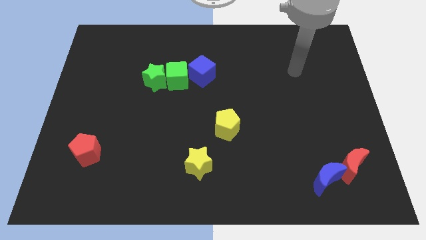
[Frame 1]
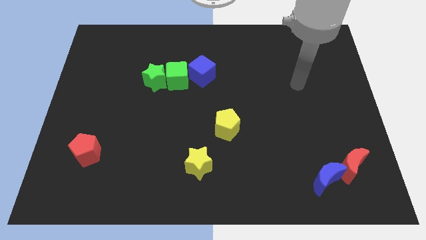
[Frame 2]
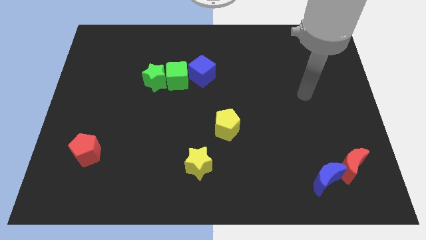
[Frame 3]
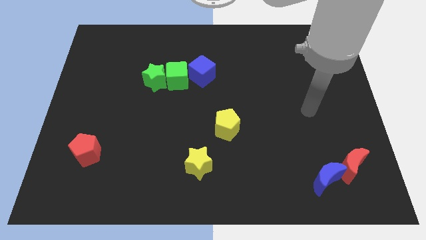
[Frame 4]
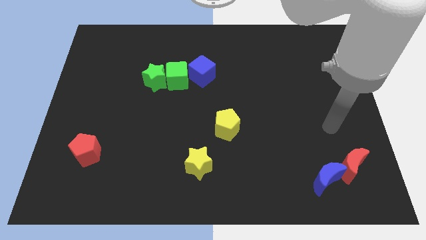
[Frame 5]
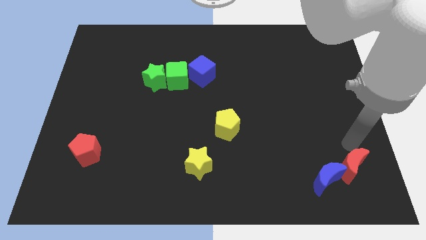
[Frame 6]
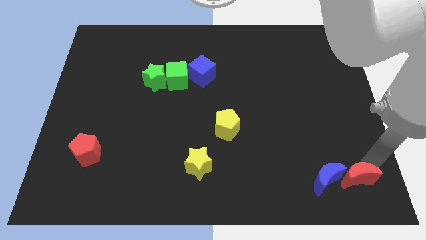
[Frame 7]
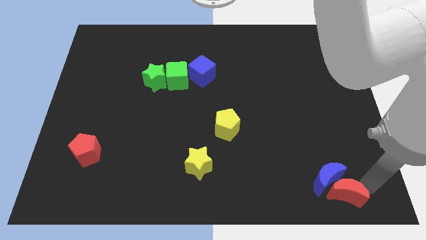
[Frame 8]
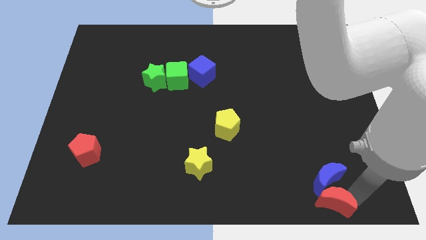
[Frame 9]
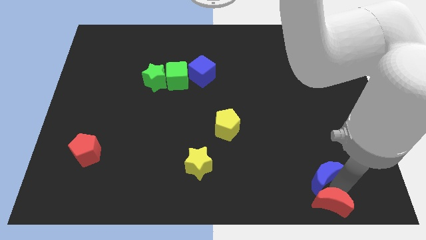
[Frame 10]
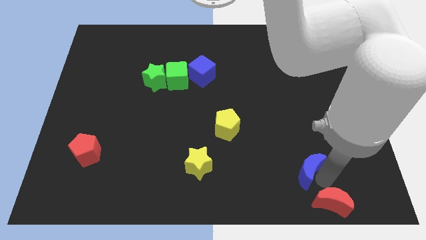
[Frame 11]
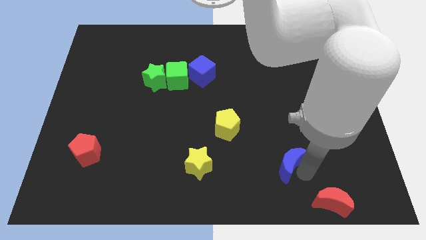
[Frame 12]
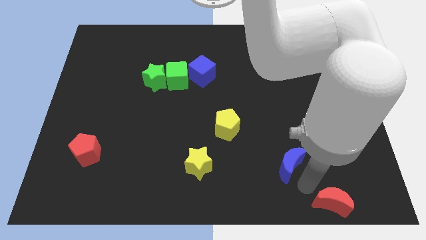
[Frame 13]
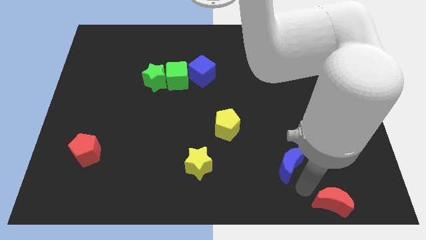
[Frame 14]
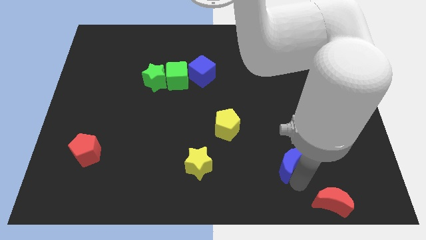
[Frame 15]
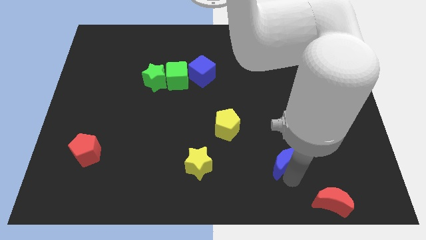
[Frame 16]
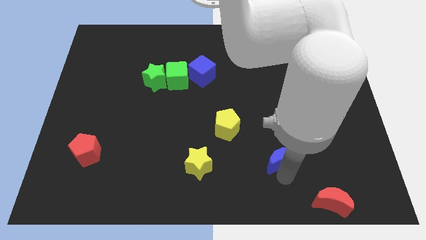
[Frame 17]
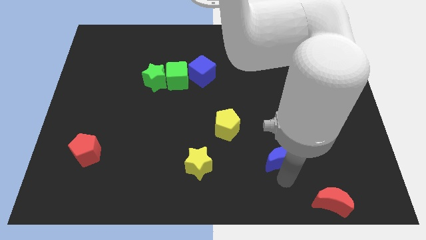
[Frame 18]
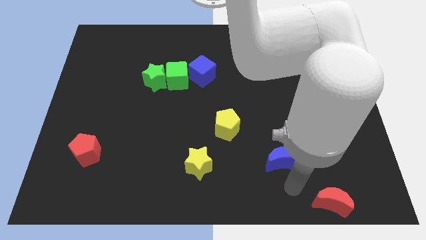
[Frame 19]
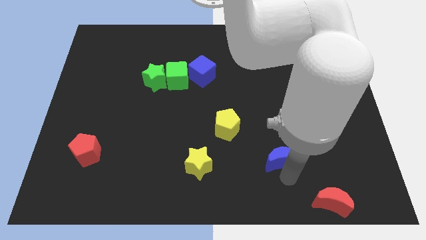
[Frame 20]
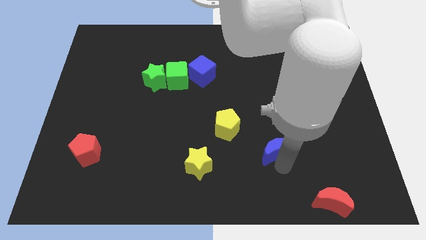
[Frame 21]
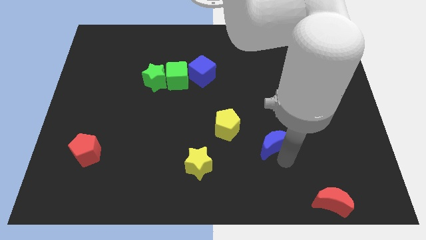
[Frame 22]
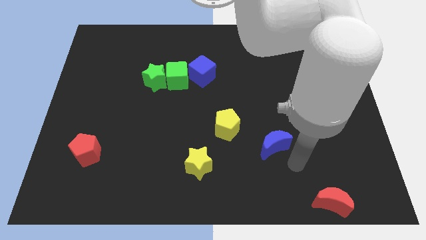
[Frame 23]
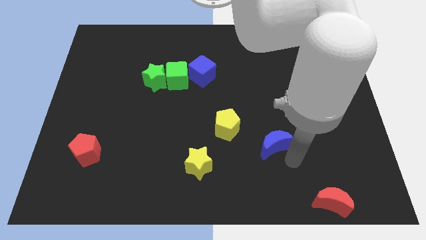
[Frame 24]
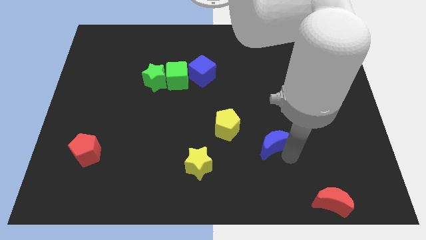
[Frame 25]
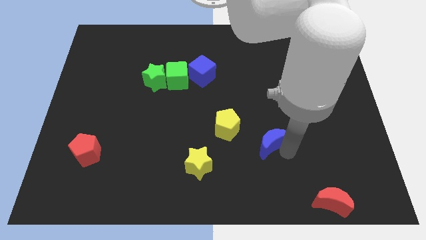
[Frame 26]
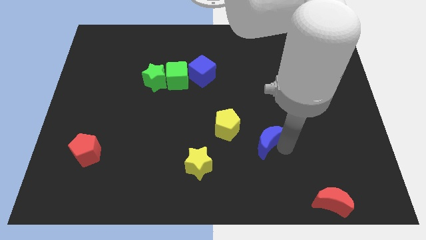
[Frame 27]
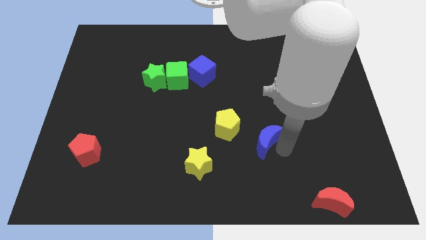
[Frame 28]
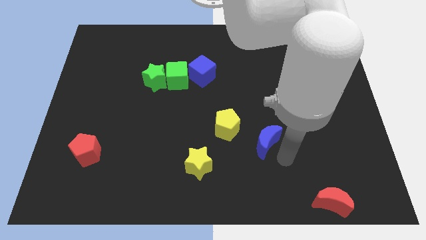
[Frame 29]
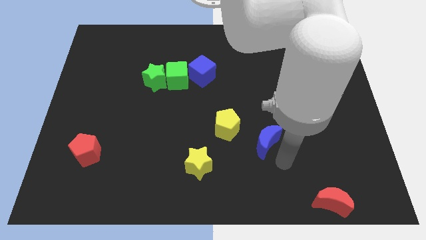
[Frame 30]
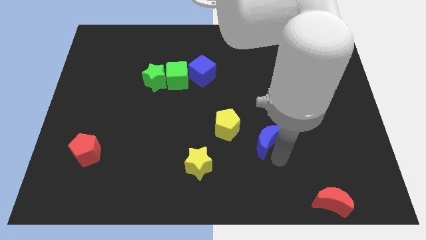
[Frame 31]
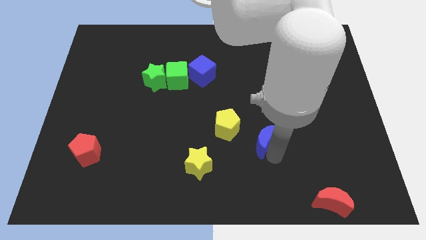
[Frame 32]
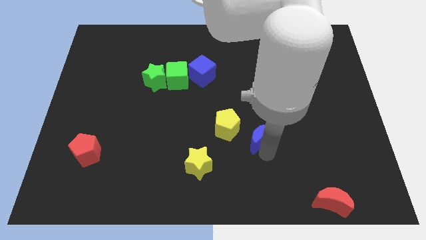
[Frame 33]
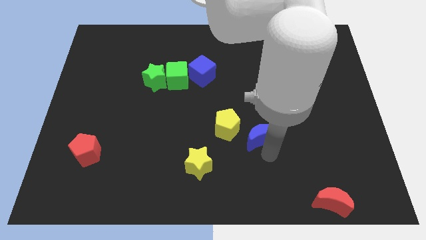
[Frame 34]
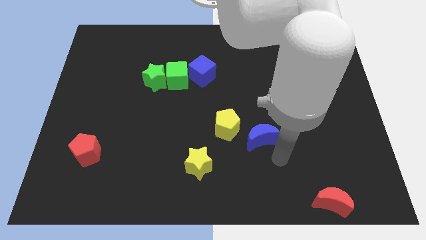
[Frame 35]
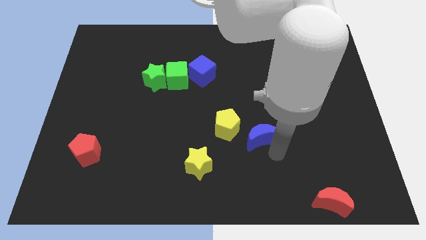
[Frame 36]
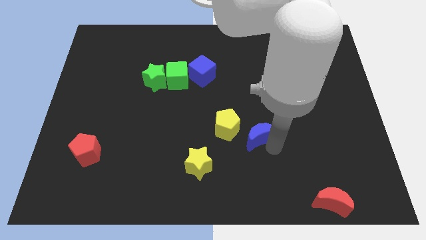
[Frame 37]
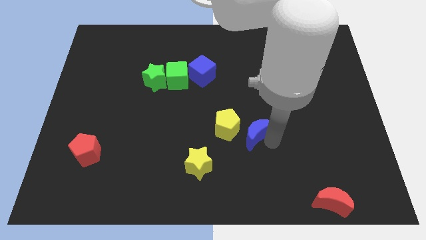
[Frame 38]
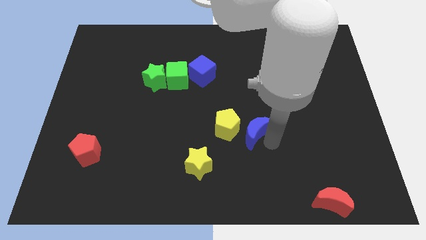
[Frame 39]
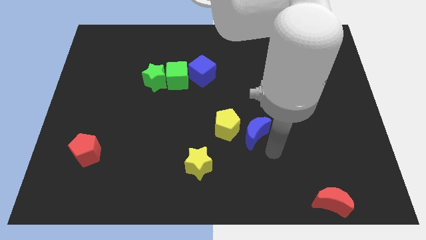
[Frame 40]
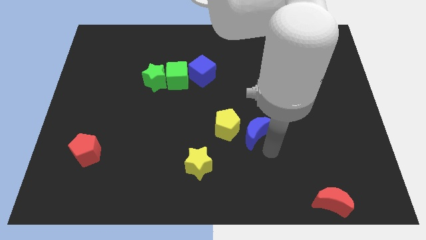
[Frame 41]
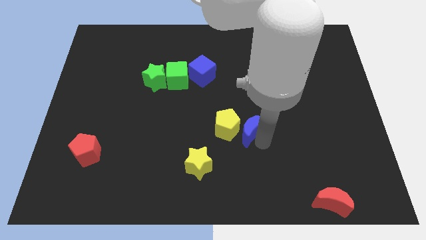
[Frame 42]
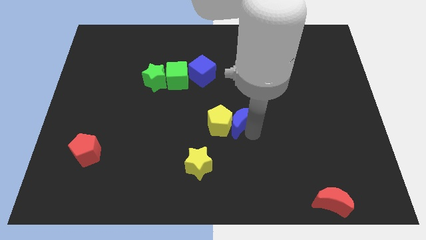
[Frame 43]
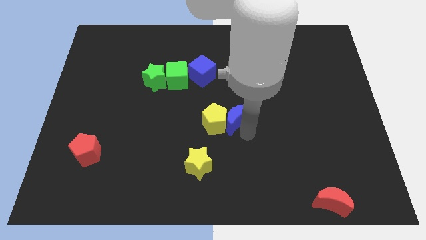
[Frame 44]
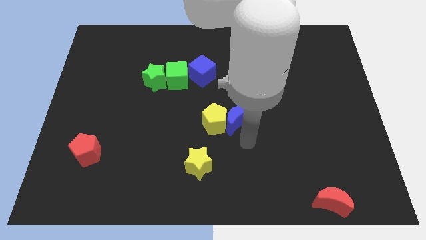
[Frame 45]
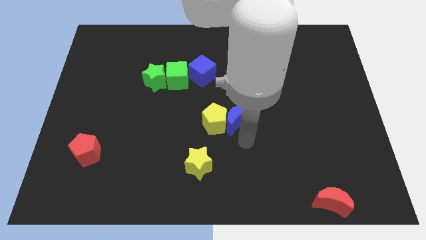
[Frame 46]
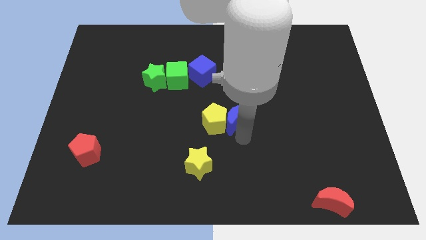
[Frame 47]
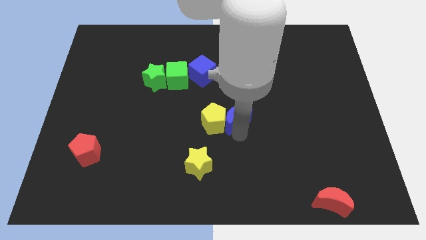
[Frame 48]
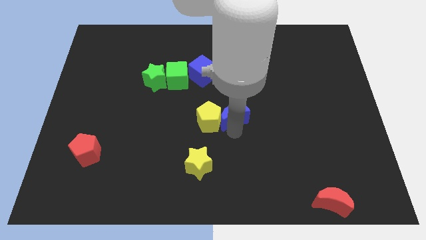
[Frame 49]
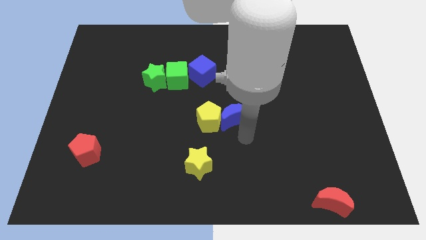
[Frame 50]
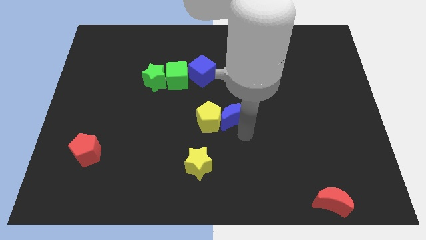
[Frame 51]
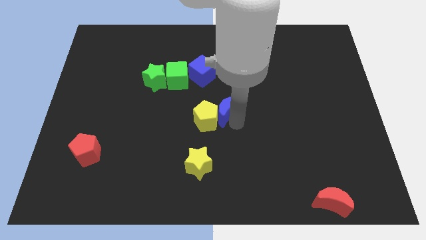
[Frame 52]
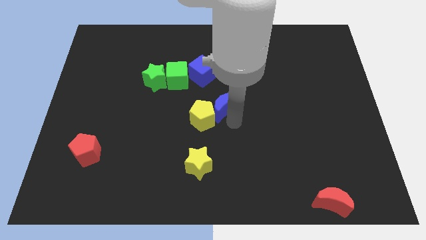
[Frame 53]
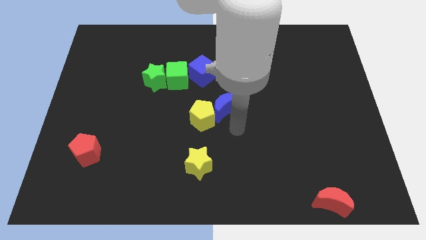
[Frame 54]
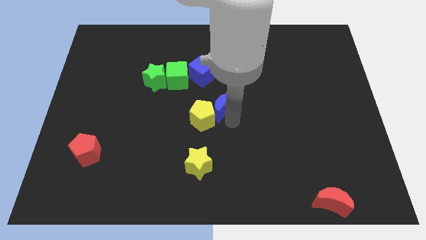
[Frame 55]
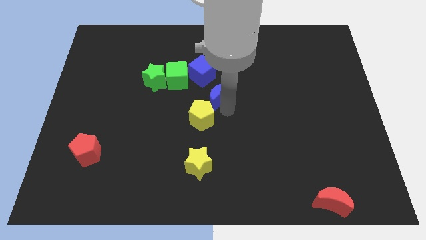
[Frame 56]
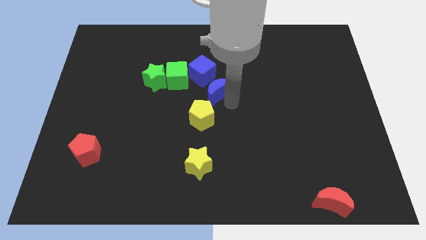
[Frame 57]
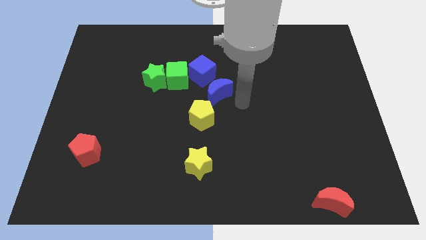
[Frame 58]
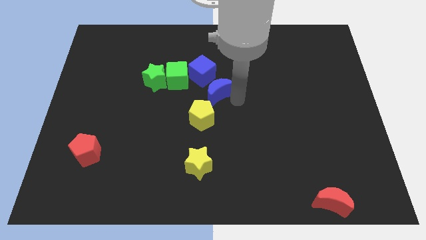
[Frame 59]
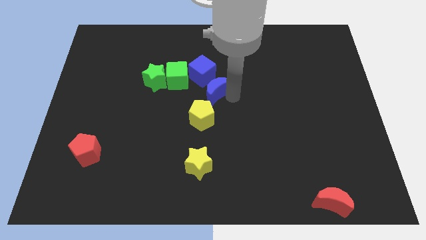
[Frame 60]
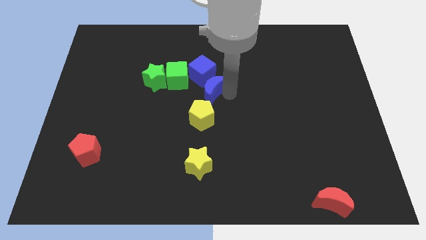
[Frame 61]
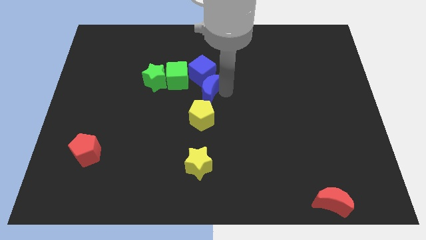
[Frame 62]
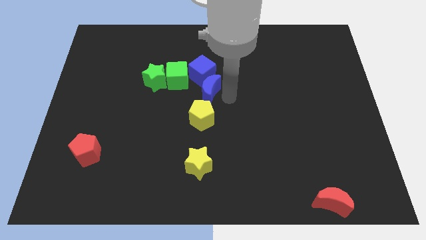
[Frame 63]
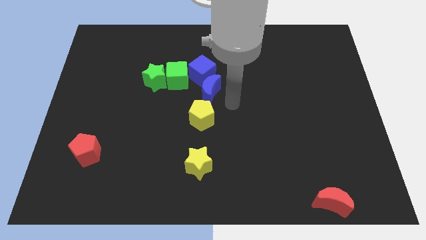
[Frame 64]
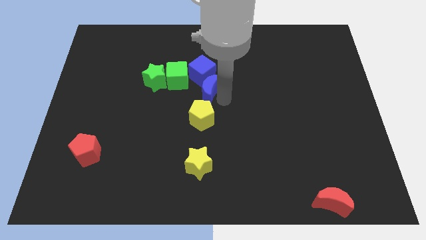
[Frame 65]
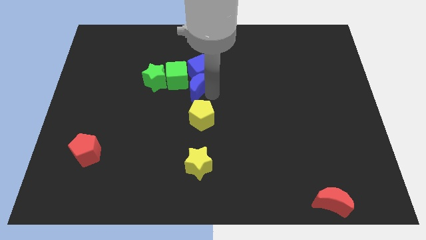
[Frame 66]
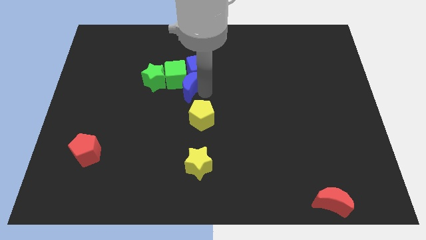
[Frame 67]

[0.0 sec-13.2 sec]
put the blue moon close to the green cube

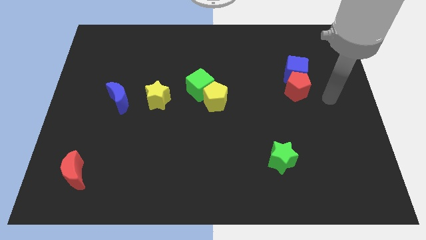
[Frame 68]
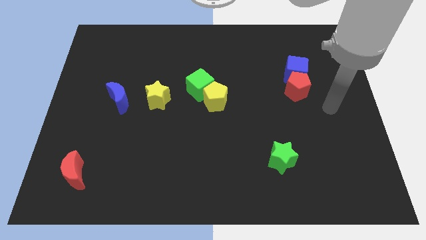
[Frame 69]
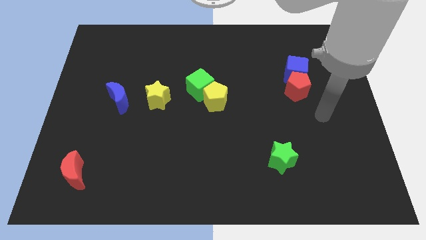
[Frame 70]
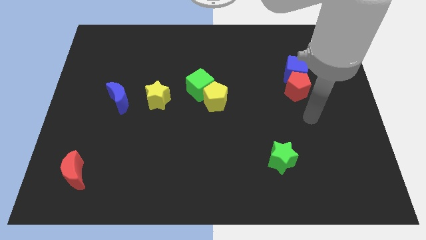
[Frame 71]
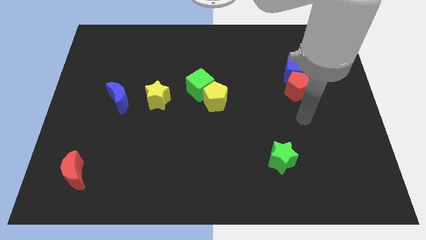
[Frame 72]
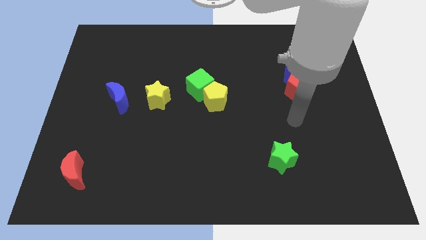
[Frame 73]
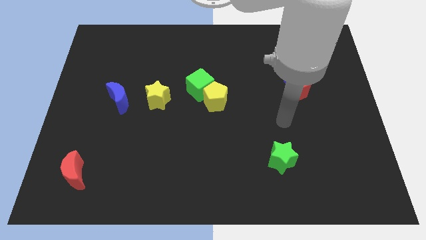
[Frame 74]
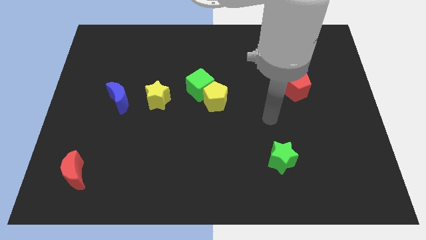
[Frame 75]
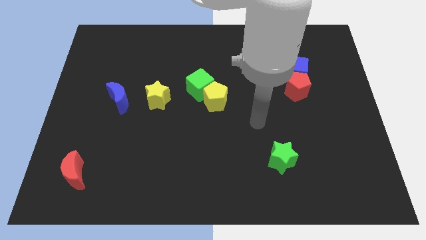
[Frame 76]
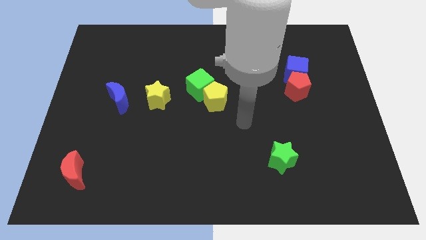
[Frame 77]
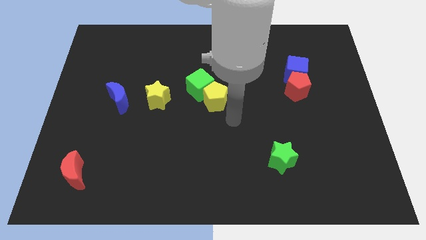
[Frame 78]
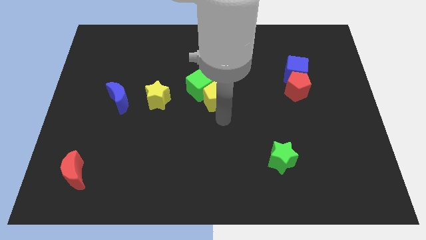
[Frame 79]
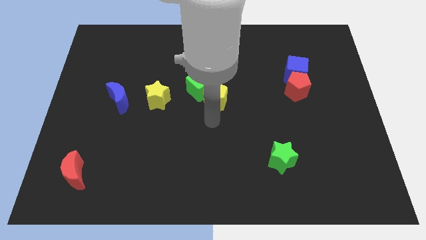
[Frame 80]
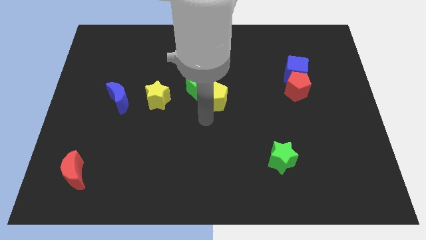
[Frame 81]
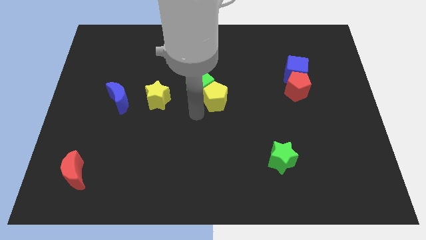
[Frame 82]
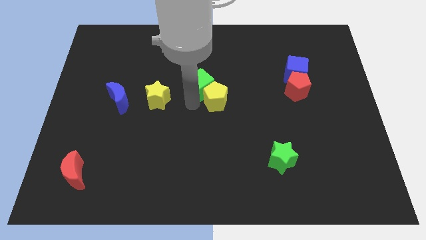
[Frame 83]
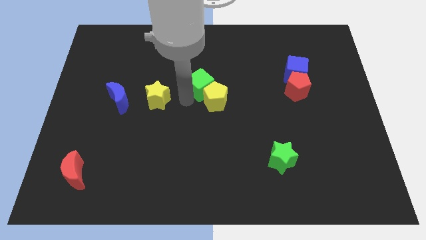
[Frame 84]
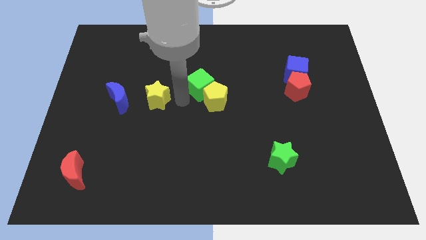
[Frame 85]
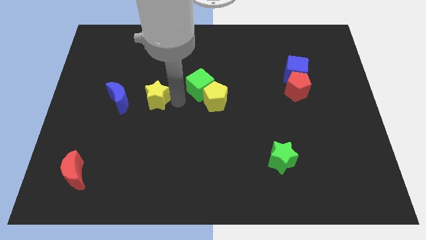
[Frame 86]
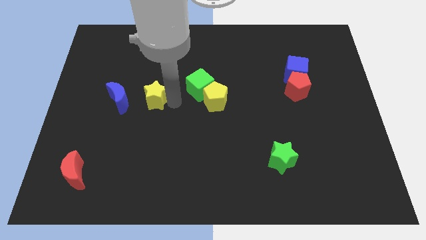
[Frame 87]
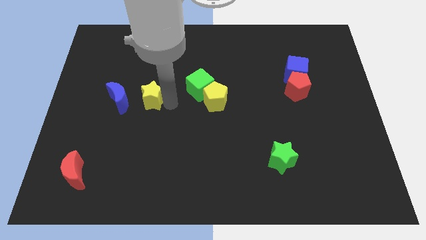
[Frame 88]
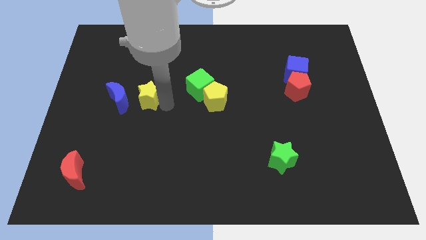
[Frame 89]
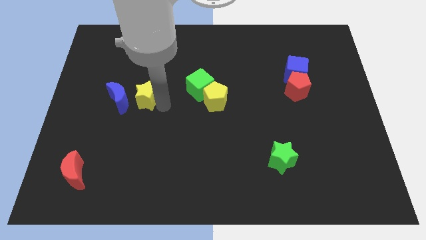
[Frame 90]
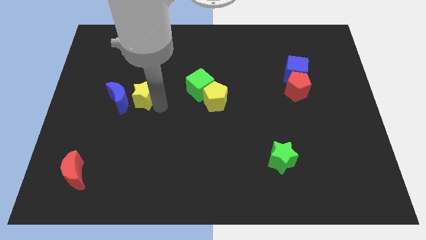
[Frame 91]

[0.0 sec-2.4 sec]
slide the yellow star to the blue moon
